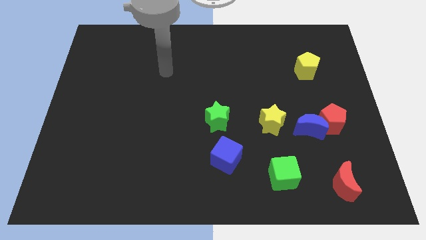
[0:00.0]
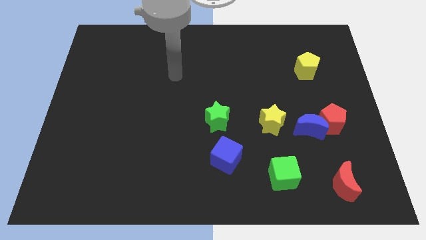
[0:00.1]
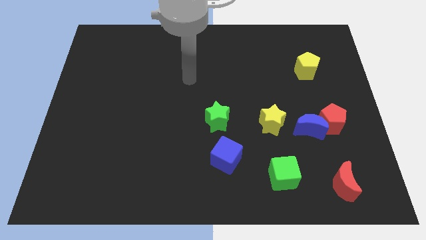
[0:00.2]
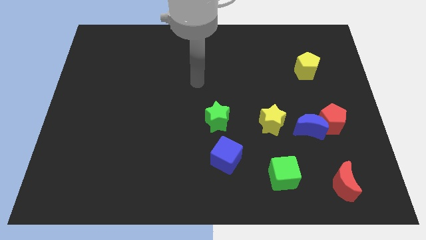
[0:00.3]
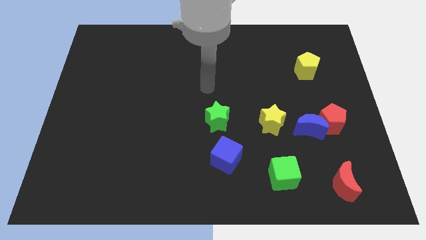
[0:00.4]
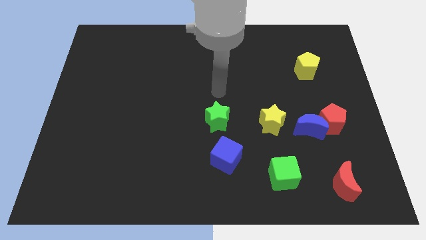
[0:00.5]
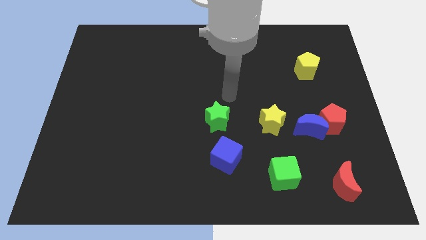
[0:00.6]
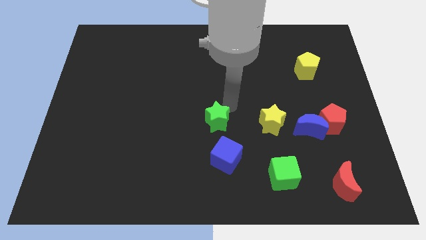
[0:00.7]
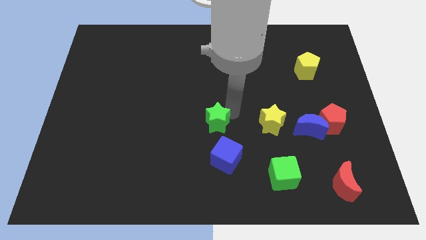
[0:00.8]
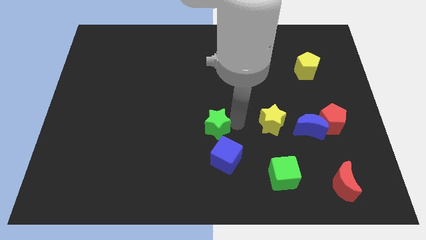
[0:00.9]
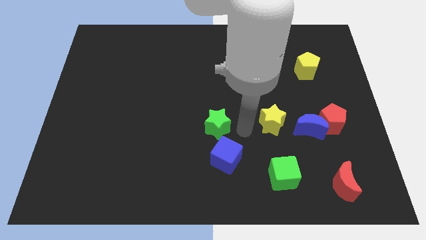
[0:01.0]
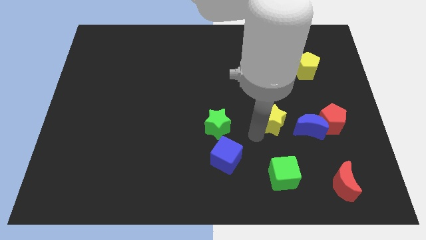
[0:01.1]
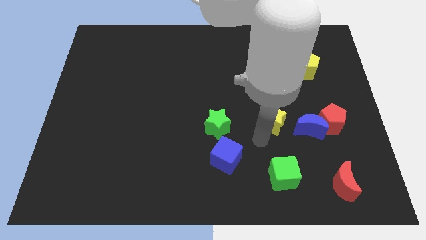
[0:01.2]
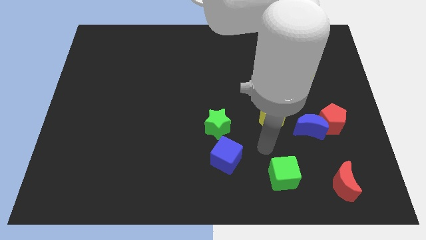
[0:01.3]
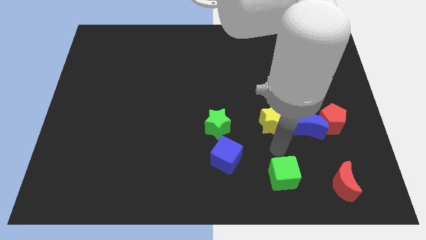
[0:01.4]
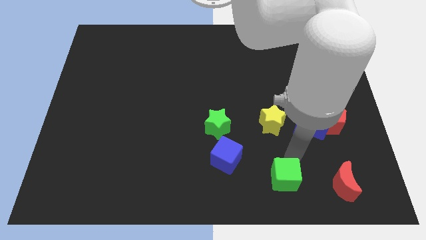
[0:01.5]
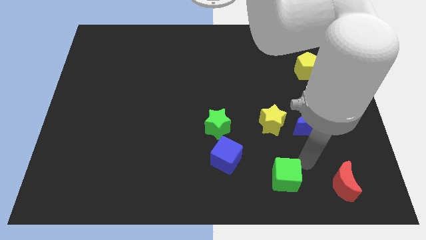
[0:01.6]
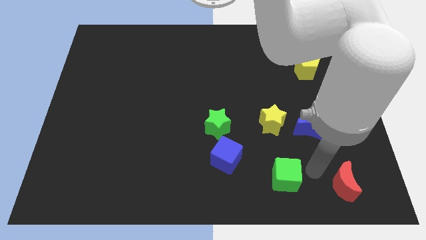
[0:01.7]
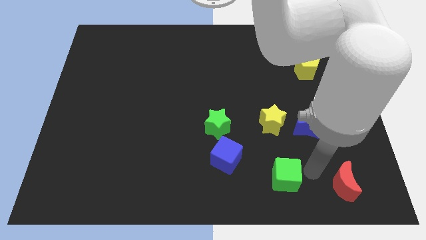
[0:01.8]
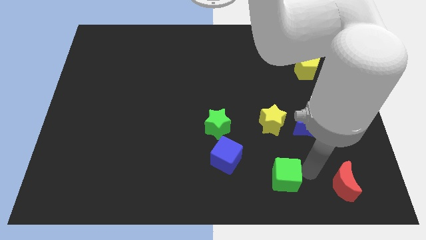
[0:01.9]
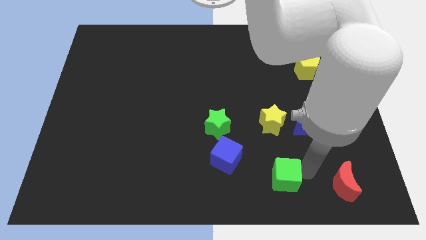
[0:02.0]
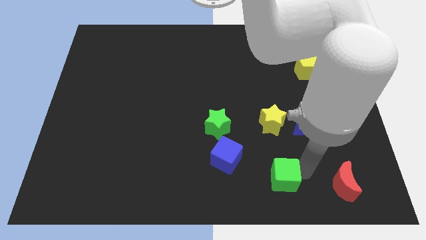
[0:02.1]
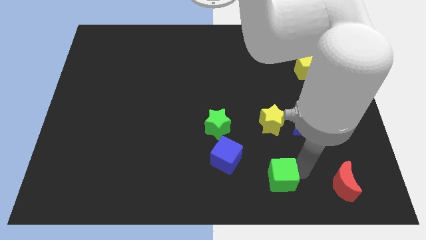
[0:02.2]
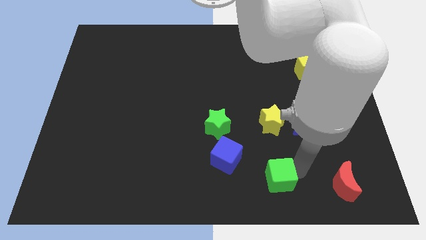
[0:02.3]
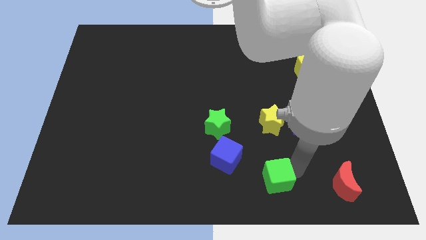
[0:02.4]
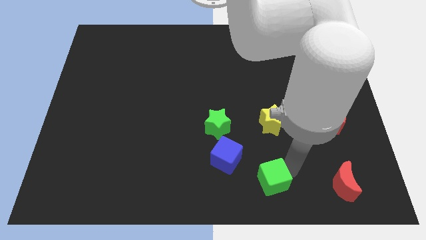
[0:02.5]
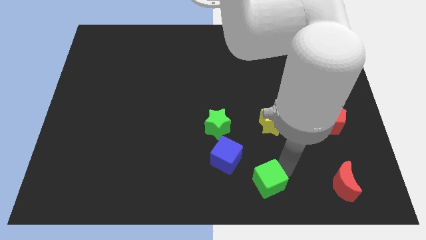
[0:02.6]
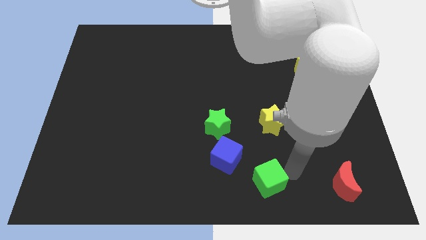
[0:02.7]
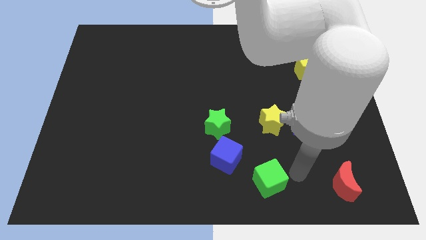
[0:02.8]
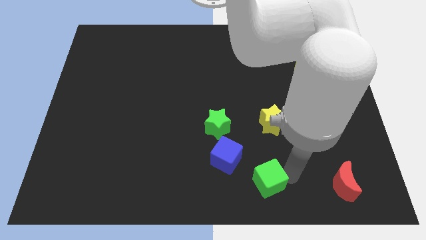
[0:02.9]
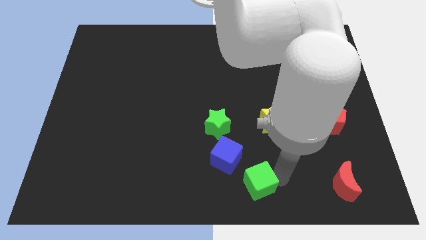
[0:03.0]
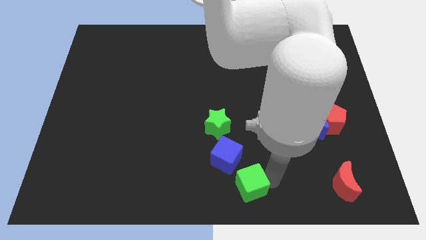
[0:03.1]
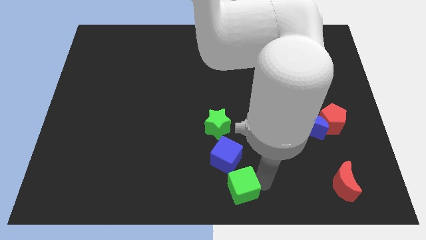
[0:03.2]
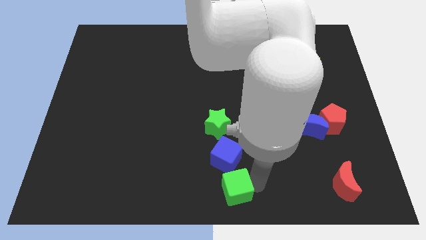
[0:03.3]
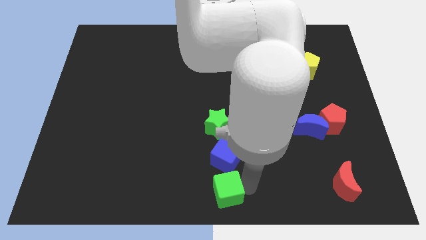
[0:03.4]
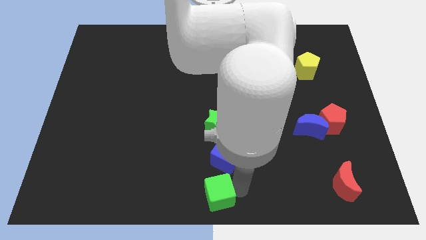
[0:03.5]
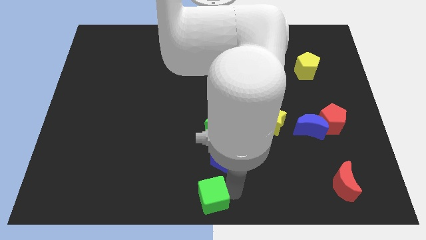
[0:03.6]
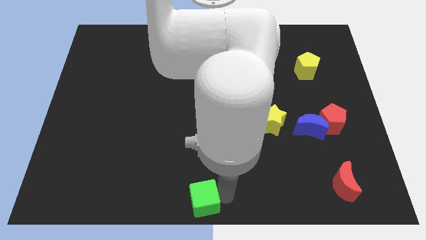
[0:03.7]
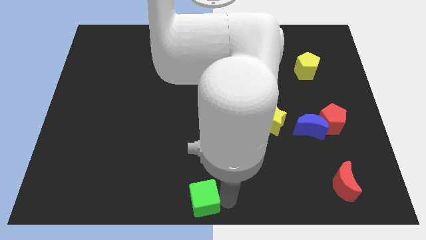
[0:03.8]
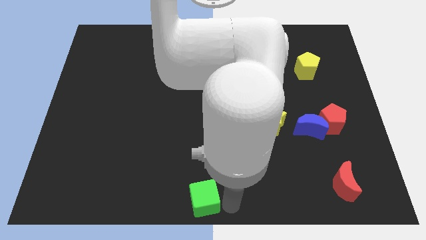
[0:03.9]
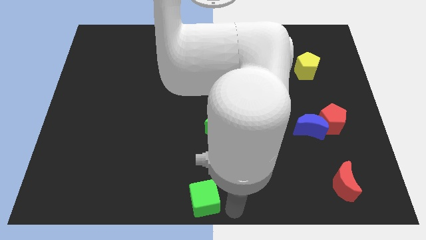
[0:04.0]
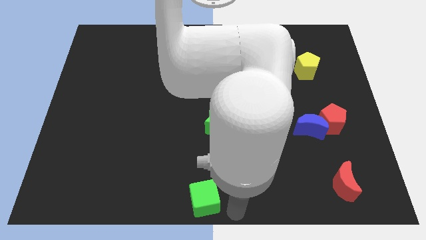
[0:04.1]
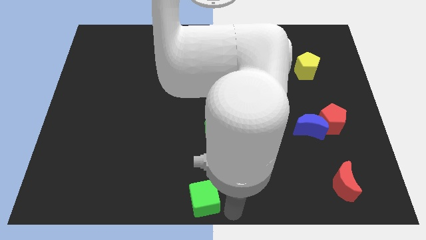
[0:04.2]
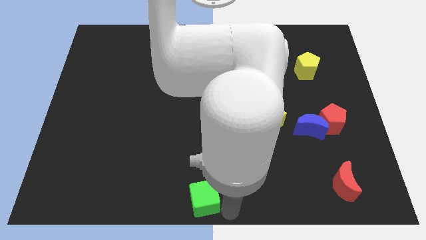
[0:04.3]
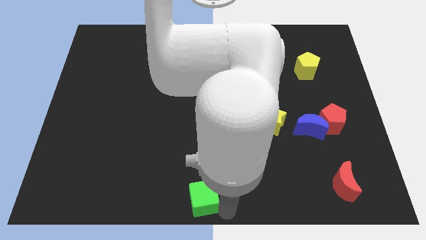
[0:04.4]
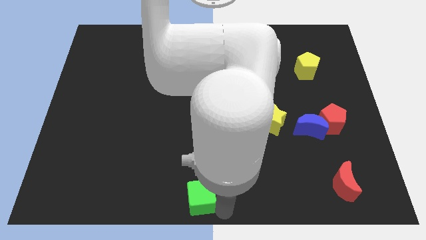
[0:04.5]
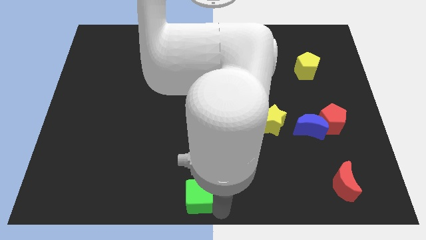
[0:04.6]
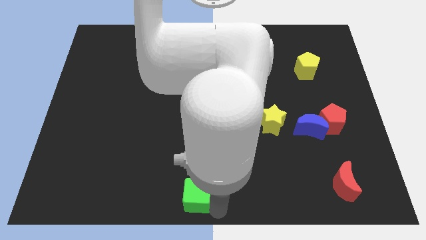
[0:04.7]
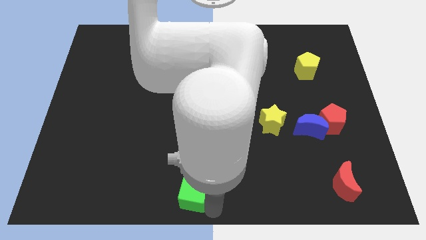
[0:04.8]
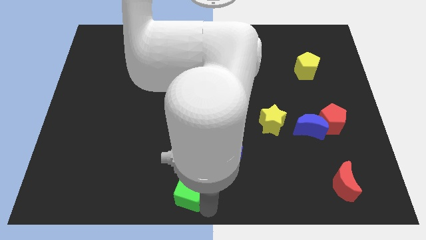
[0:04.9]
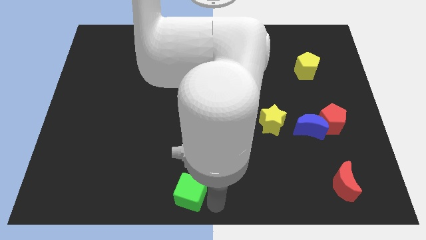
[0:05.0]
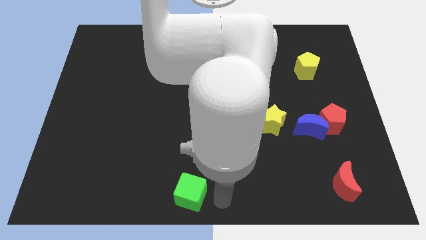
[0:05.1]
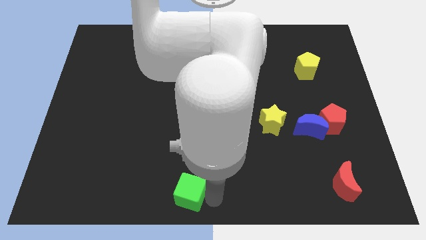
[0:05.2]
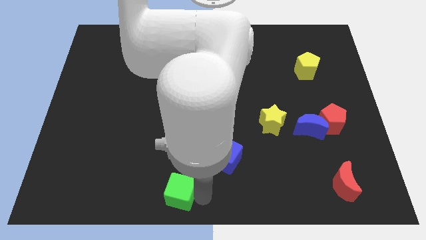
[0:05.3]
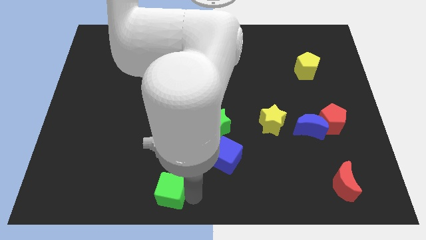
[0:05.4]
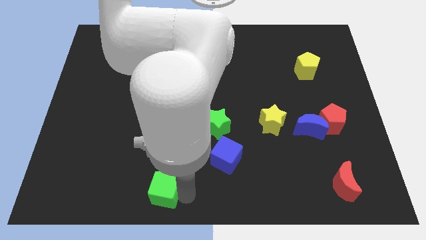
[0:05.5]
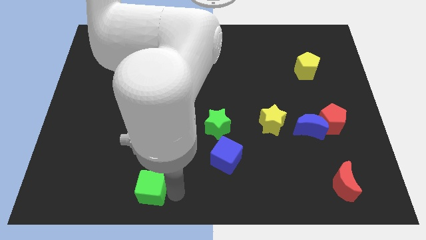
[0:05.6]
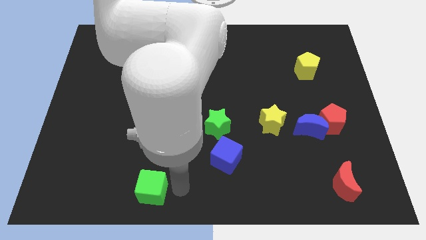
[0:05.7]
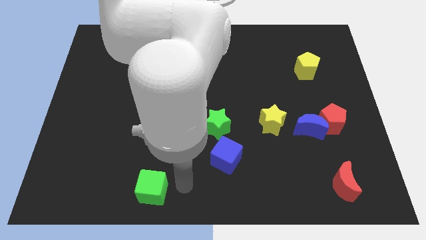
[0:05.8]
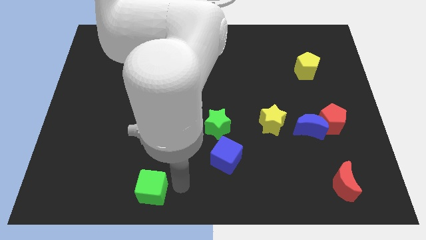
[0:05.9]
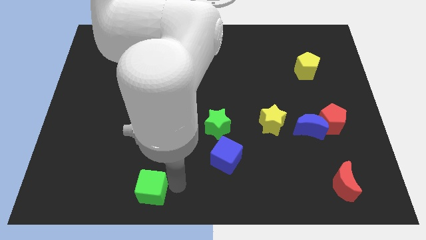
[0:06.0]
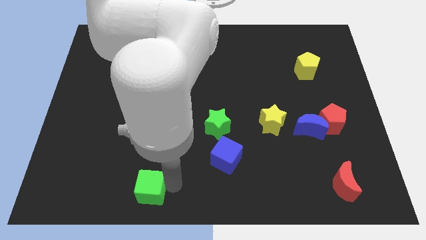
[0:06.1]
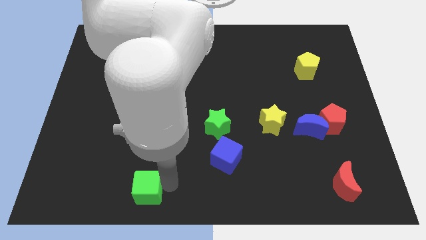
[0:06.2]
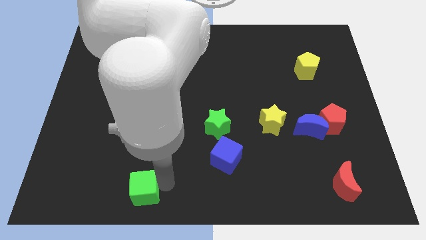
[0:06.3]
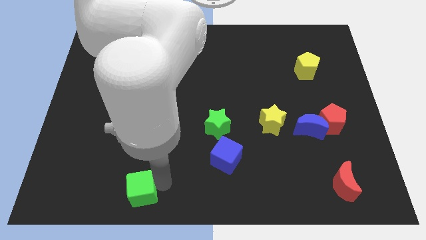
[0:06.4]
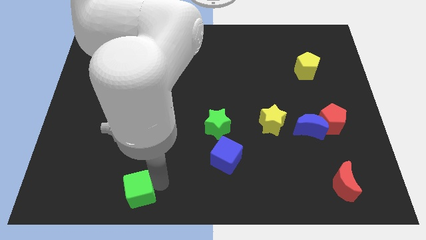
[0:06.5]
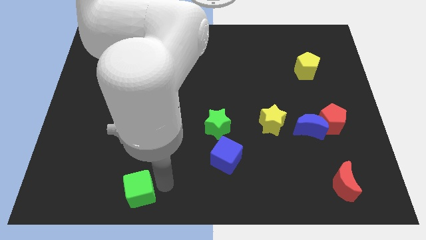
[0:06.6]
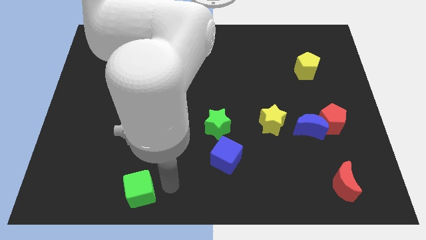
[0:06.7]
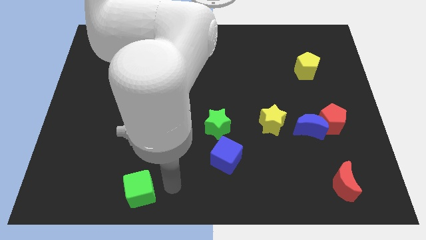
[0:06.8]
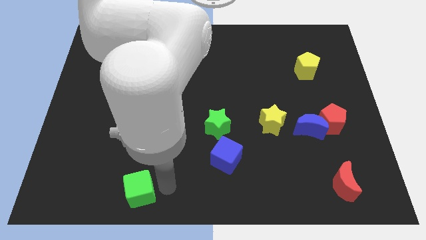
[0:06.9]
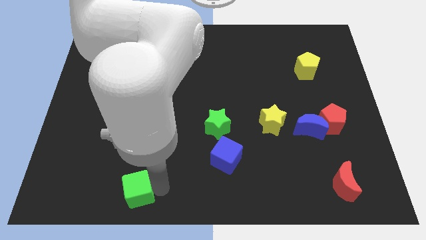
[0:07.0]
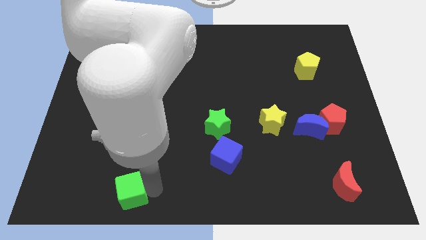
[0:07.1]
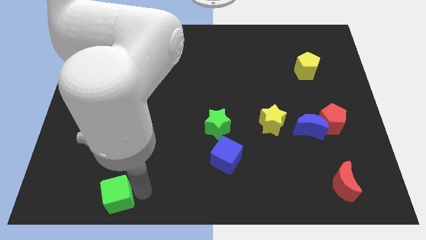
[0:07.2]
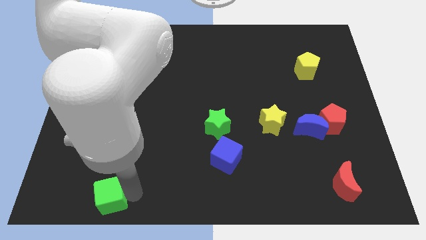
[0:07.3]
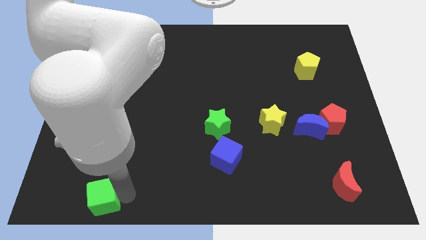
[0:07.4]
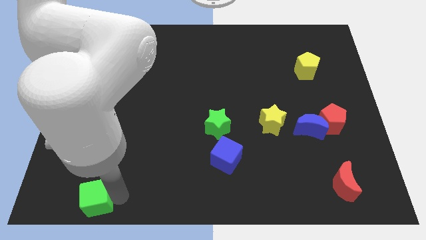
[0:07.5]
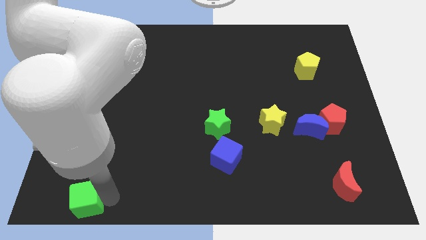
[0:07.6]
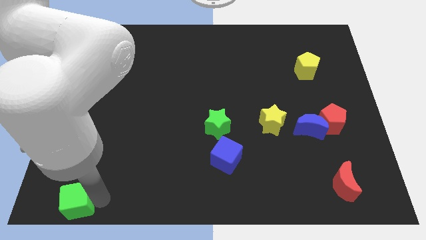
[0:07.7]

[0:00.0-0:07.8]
move the green cube to the lower left corner
